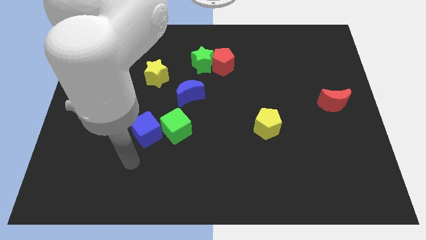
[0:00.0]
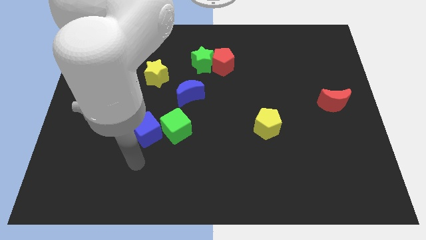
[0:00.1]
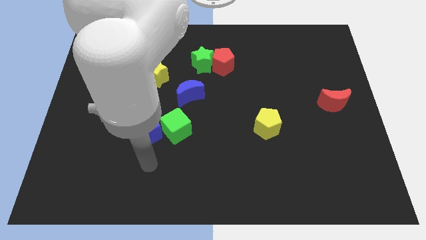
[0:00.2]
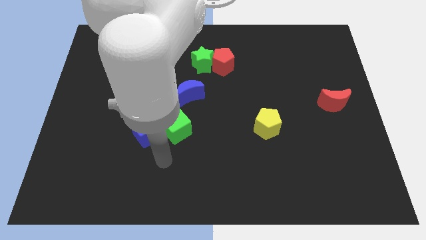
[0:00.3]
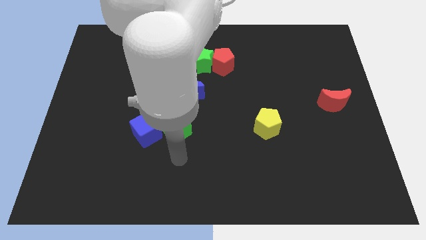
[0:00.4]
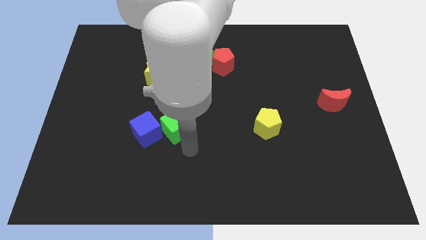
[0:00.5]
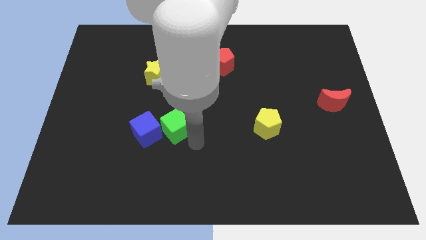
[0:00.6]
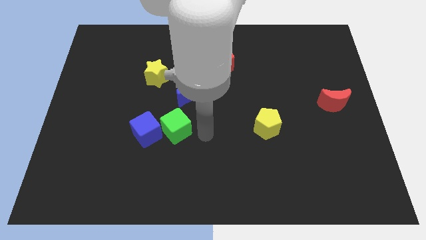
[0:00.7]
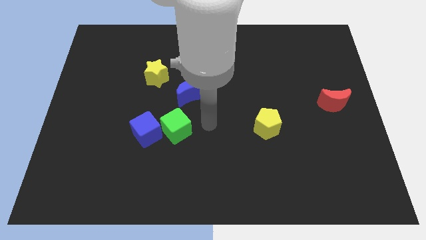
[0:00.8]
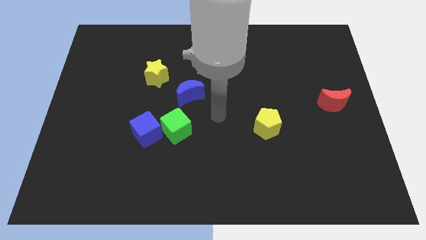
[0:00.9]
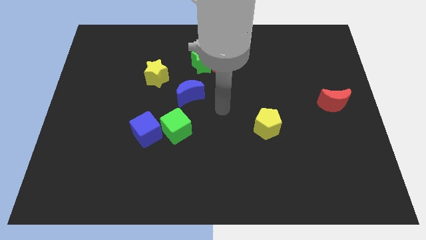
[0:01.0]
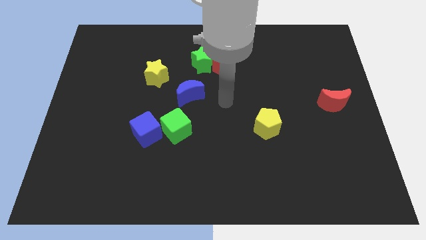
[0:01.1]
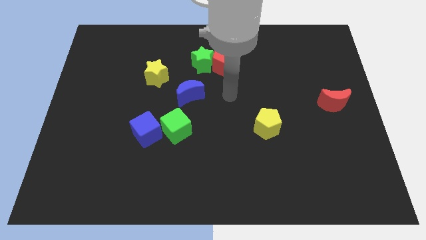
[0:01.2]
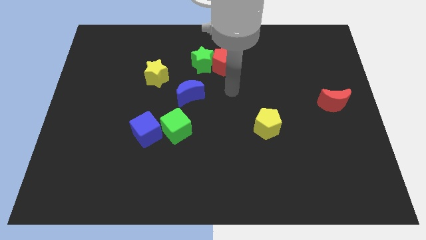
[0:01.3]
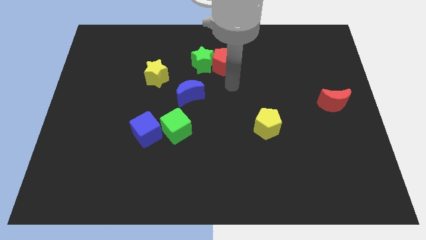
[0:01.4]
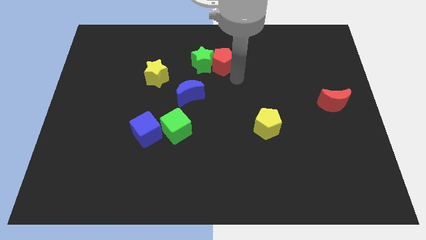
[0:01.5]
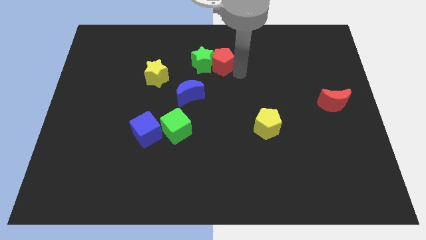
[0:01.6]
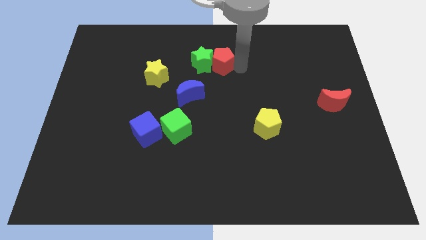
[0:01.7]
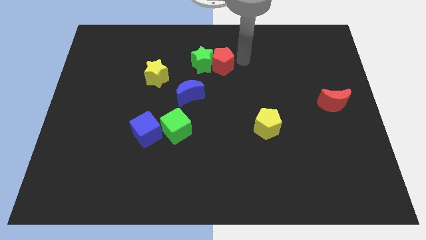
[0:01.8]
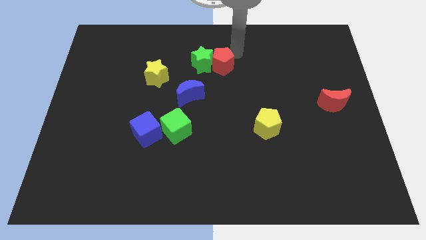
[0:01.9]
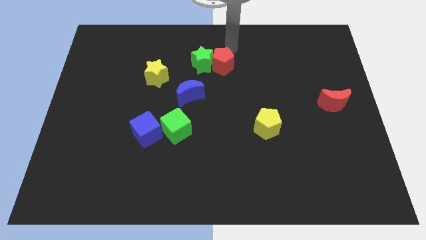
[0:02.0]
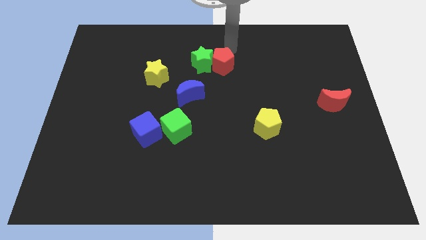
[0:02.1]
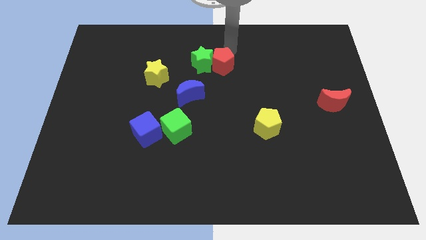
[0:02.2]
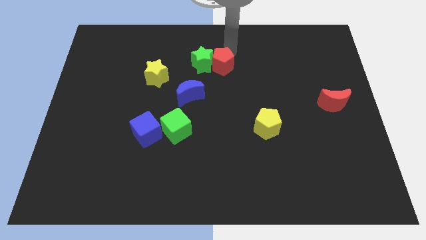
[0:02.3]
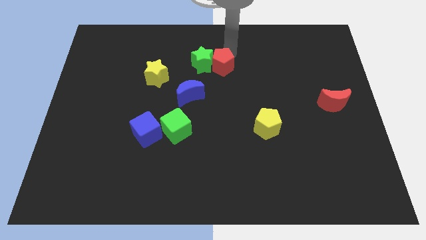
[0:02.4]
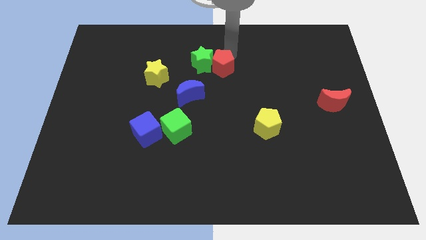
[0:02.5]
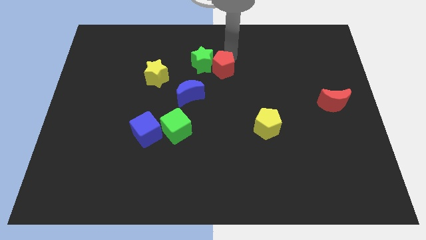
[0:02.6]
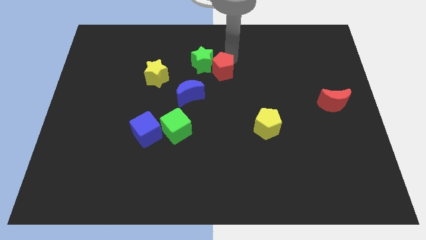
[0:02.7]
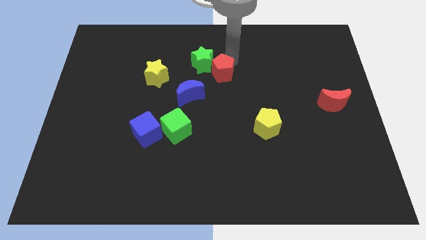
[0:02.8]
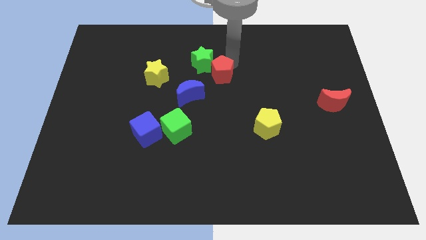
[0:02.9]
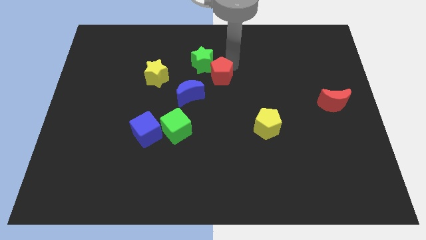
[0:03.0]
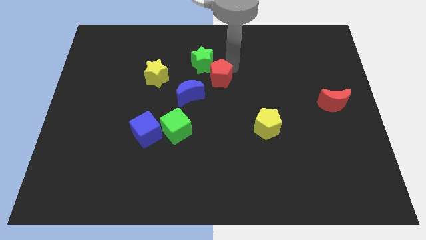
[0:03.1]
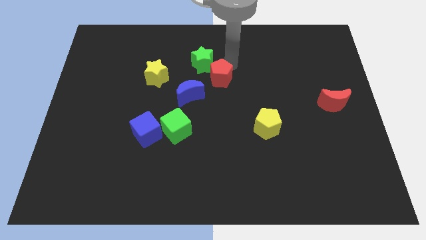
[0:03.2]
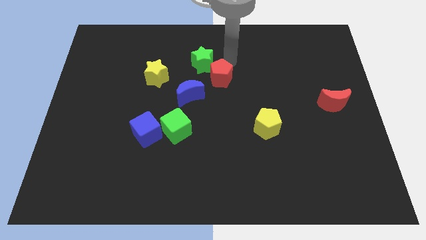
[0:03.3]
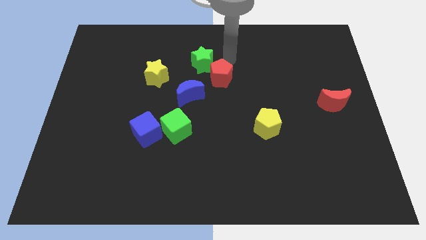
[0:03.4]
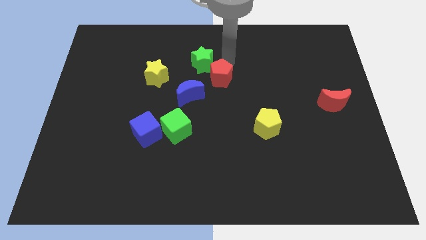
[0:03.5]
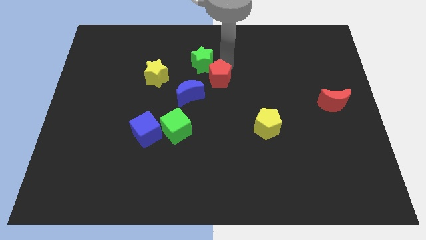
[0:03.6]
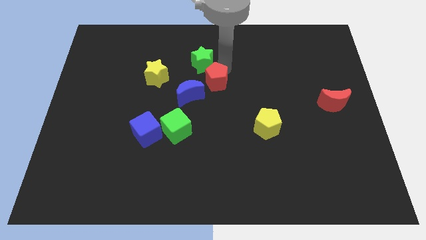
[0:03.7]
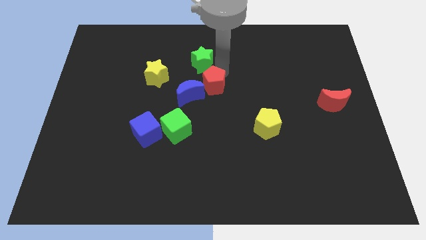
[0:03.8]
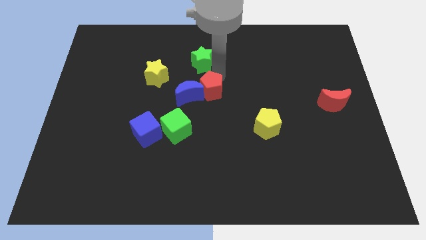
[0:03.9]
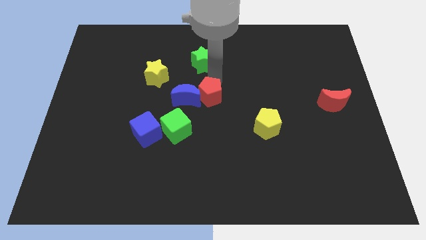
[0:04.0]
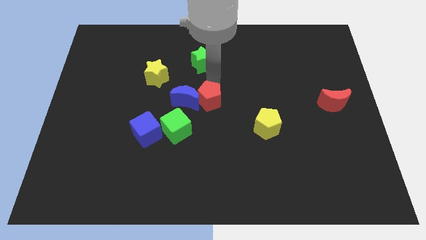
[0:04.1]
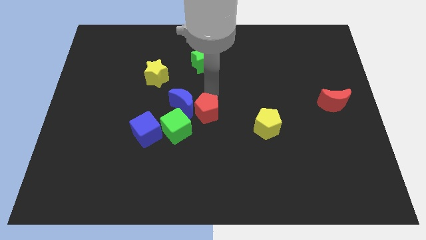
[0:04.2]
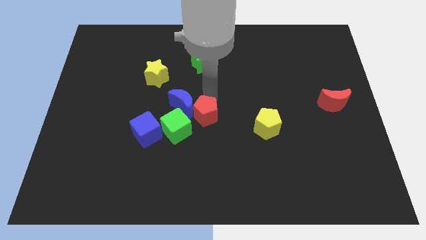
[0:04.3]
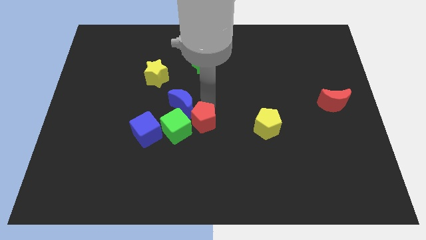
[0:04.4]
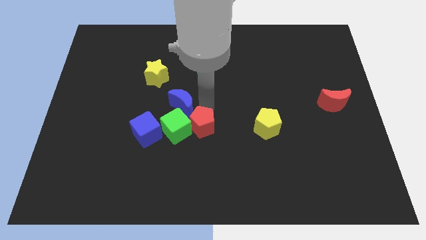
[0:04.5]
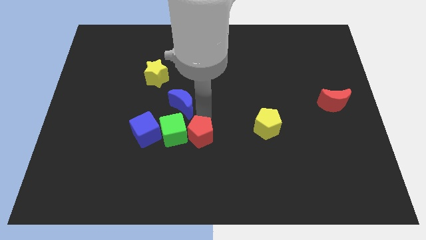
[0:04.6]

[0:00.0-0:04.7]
push the red pentagon downwards

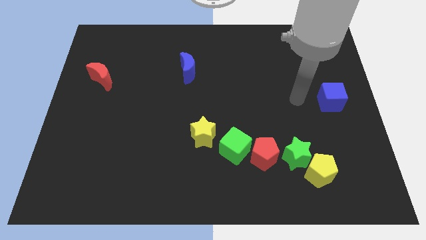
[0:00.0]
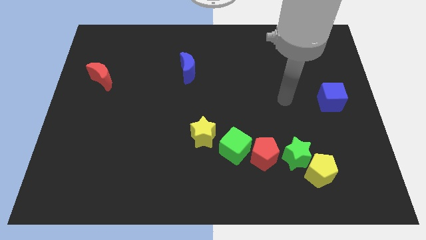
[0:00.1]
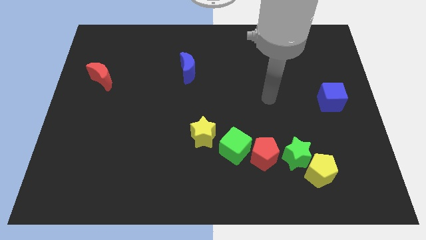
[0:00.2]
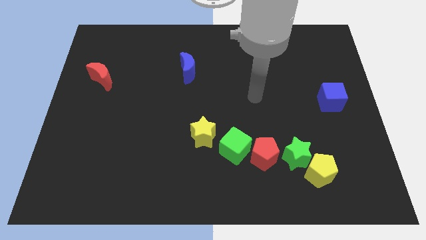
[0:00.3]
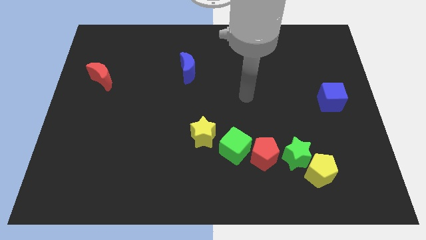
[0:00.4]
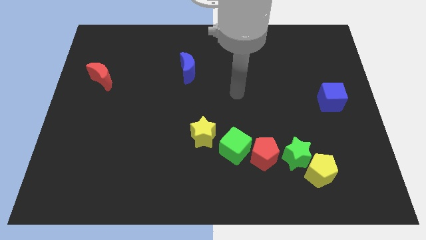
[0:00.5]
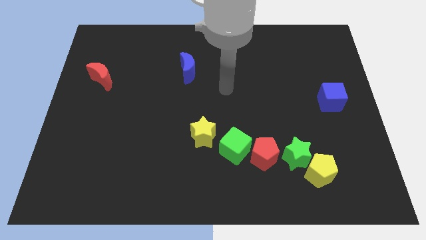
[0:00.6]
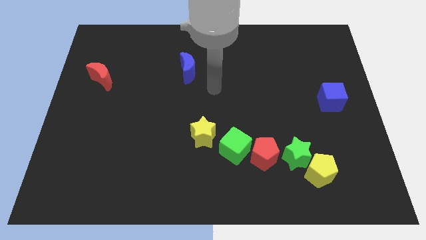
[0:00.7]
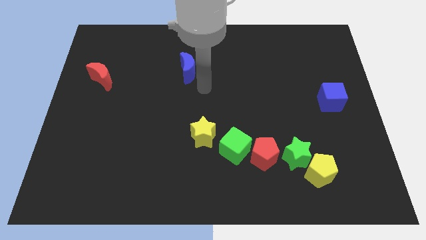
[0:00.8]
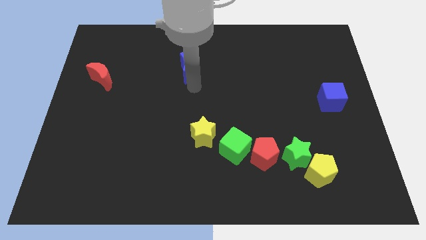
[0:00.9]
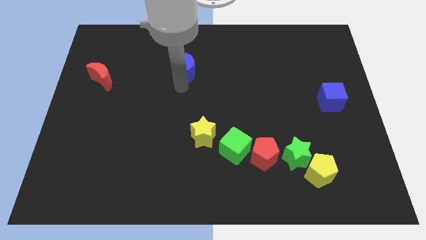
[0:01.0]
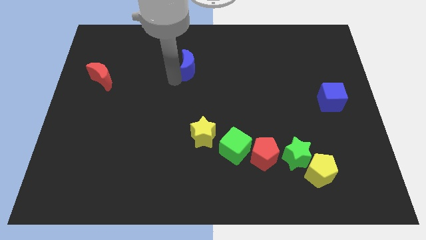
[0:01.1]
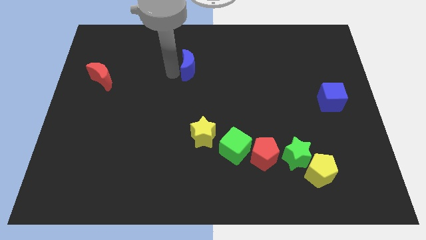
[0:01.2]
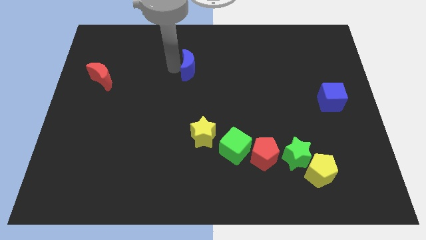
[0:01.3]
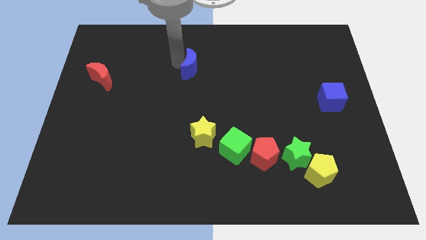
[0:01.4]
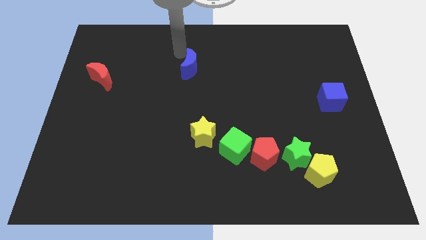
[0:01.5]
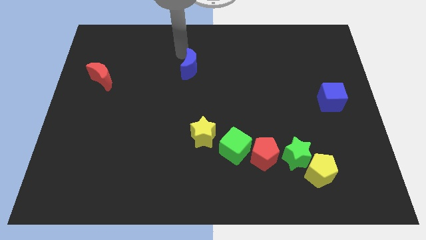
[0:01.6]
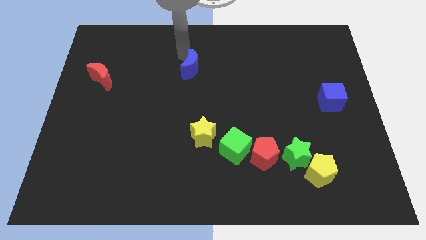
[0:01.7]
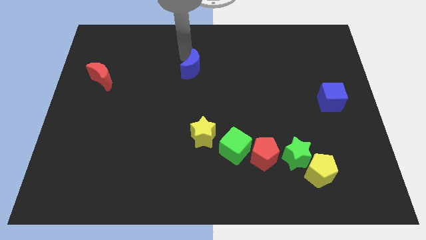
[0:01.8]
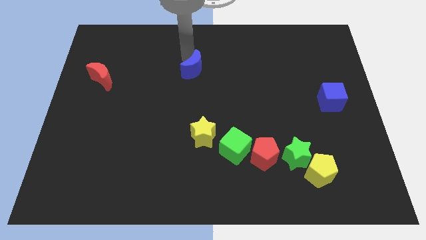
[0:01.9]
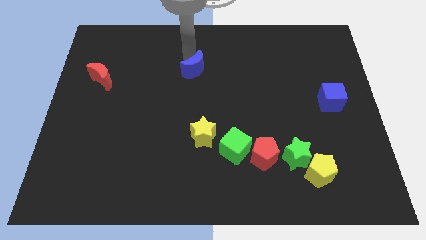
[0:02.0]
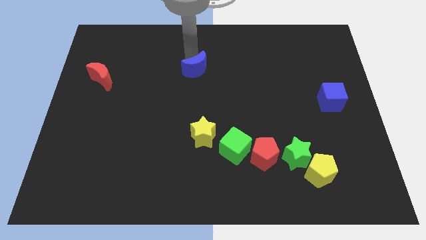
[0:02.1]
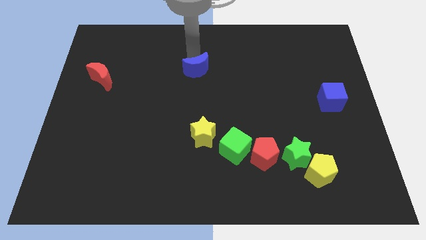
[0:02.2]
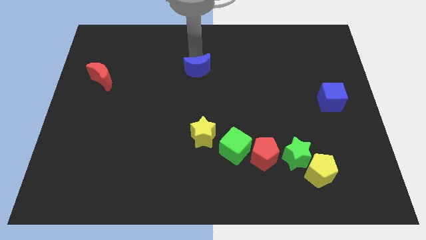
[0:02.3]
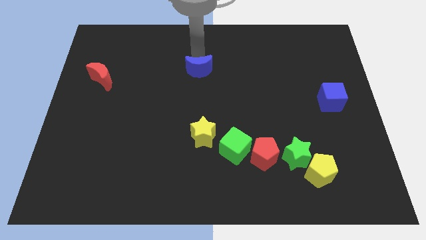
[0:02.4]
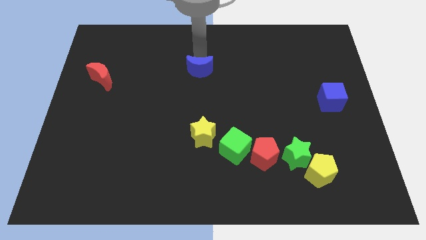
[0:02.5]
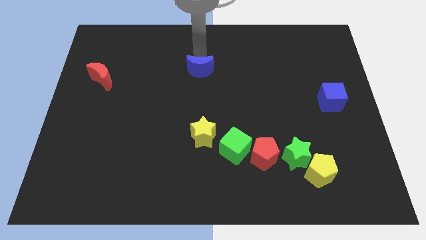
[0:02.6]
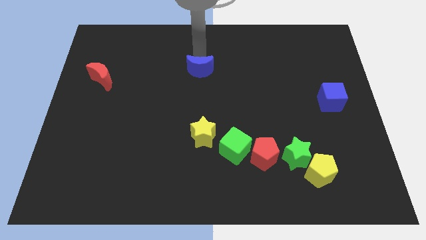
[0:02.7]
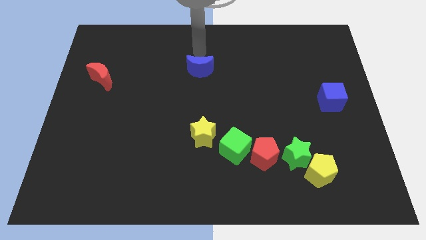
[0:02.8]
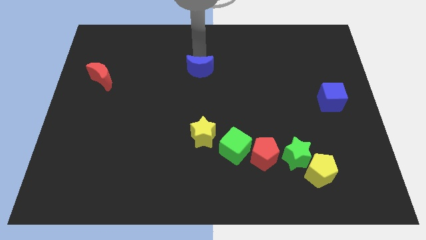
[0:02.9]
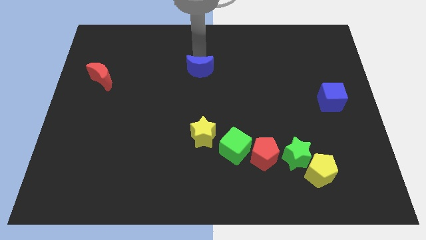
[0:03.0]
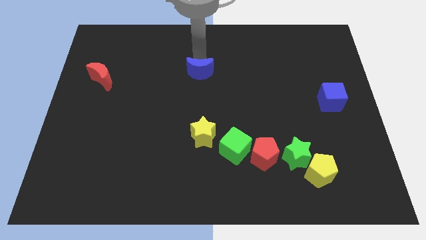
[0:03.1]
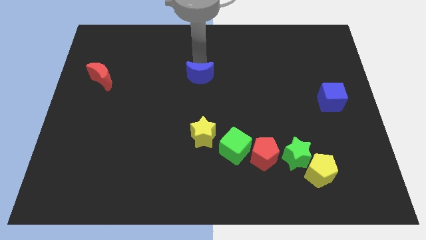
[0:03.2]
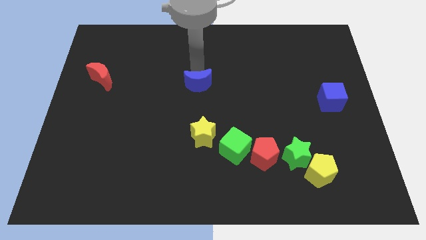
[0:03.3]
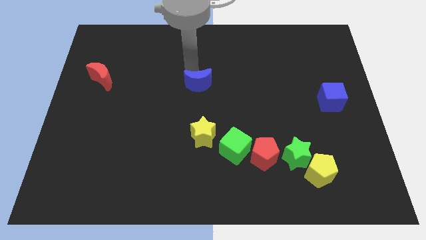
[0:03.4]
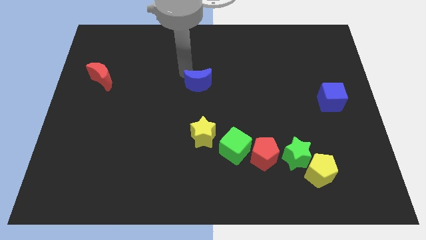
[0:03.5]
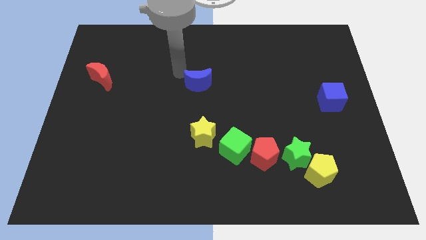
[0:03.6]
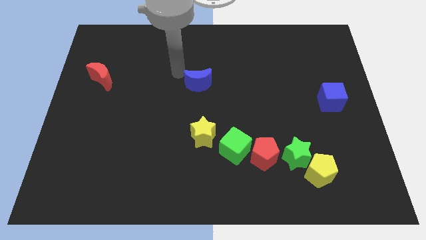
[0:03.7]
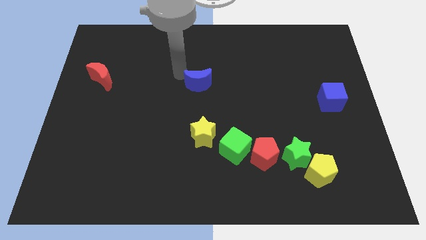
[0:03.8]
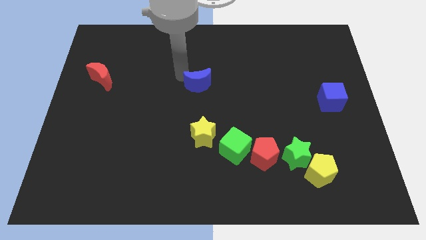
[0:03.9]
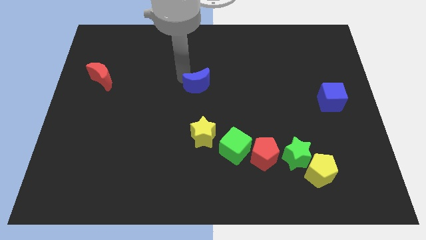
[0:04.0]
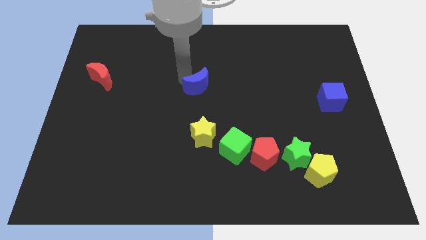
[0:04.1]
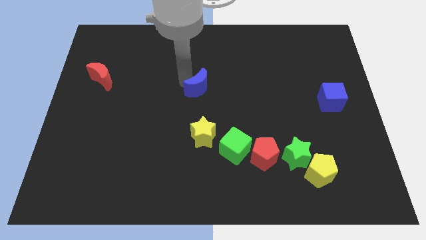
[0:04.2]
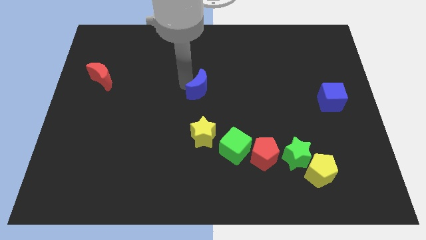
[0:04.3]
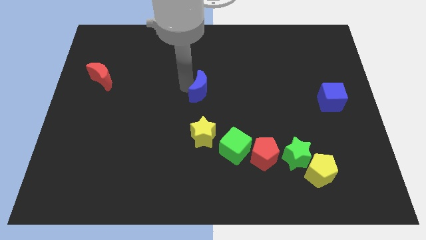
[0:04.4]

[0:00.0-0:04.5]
push the blue moon a little bit downwards and to the right
